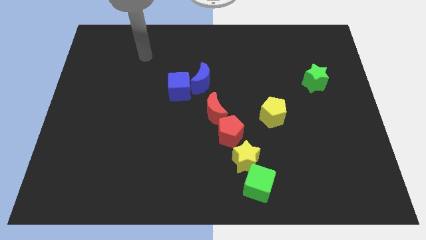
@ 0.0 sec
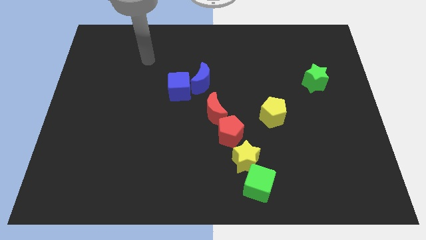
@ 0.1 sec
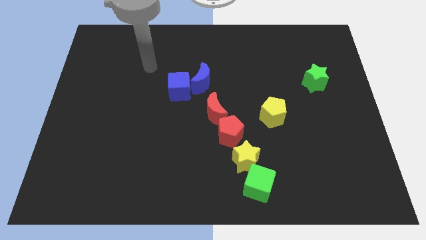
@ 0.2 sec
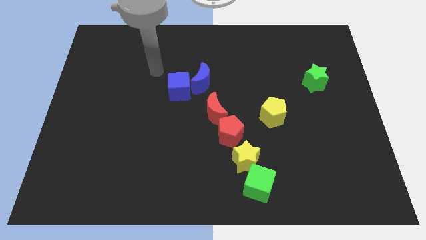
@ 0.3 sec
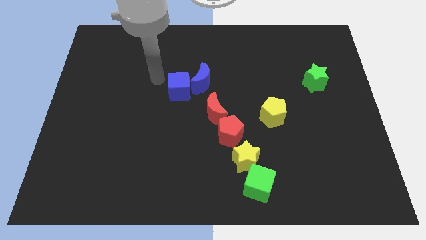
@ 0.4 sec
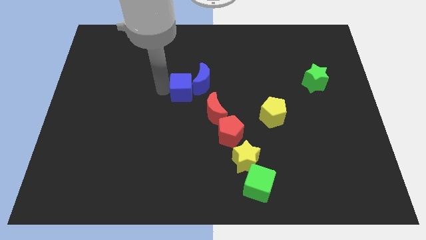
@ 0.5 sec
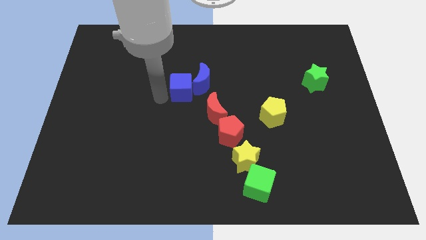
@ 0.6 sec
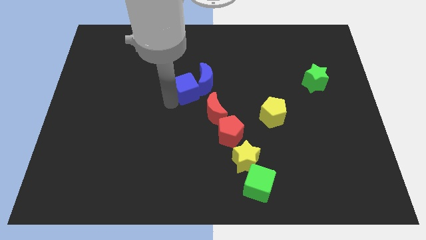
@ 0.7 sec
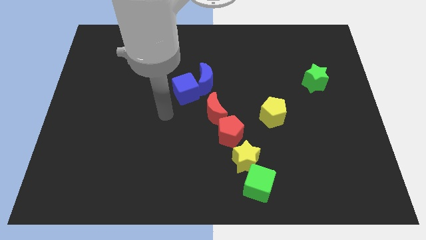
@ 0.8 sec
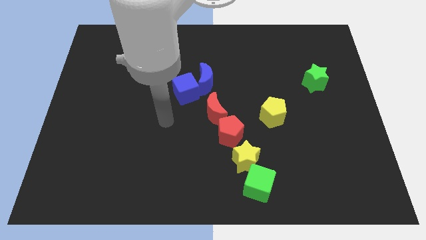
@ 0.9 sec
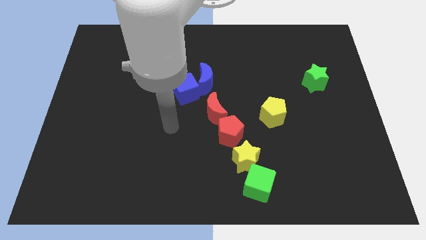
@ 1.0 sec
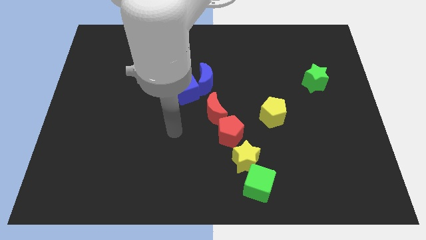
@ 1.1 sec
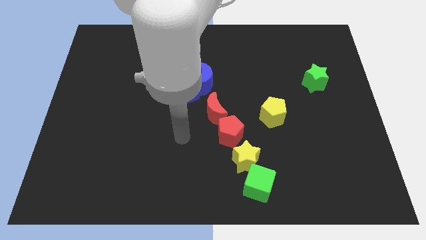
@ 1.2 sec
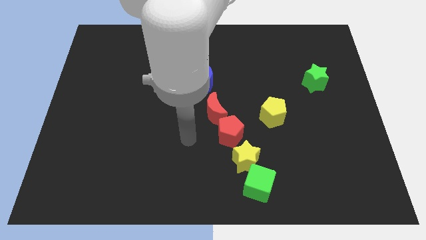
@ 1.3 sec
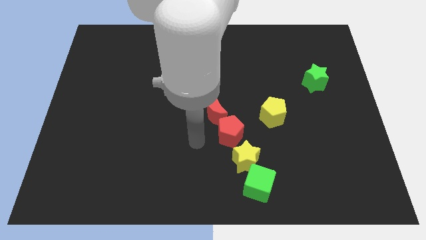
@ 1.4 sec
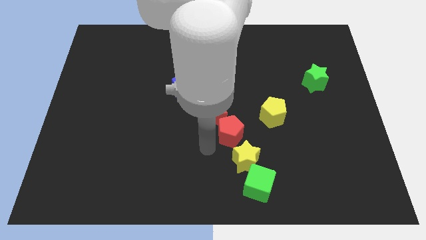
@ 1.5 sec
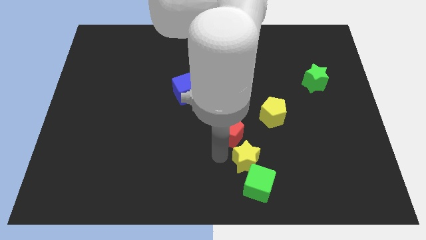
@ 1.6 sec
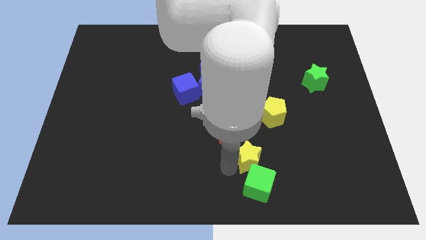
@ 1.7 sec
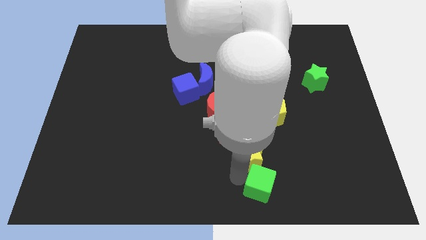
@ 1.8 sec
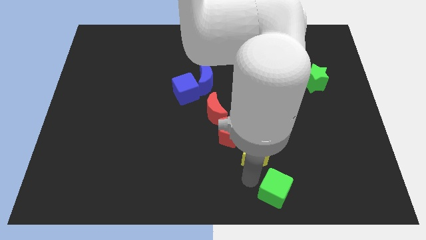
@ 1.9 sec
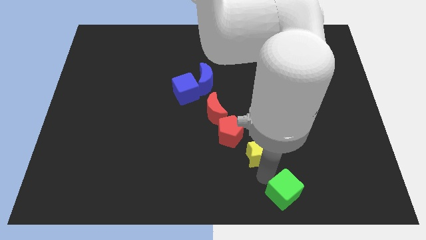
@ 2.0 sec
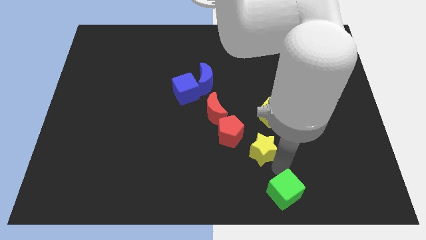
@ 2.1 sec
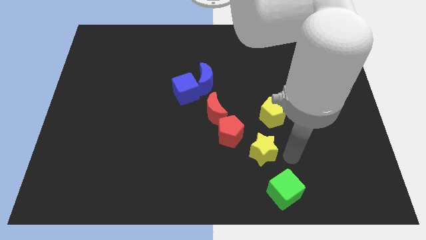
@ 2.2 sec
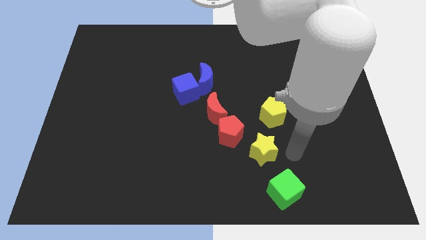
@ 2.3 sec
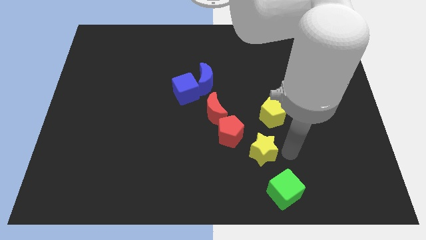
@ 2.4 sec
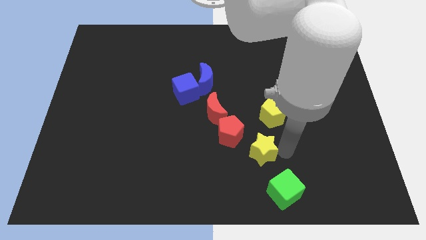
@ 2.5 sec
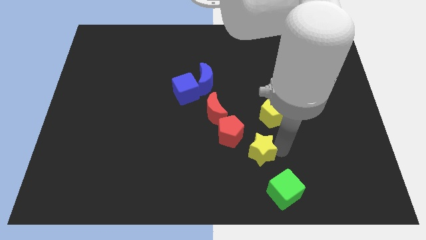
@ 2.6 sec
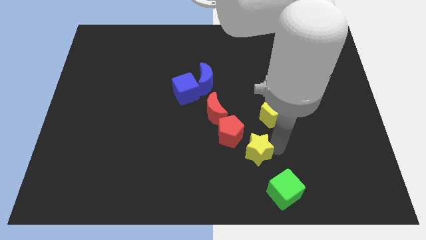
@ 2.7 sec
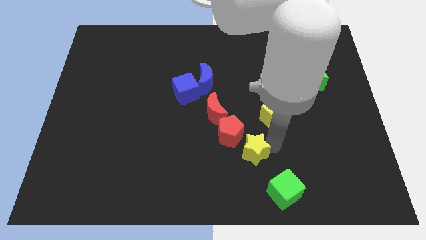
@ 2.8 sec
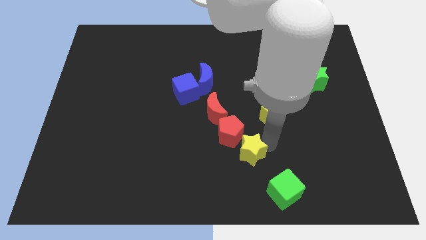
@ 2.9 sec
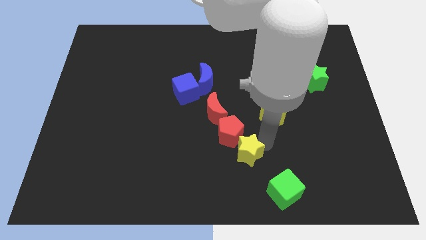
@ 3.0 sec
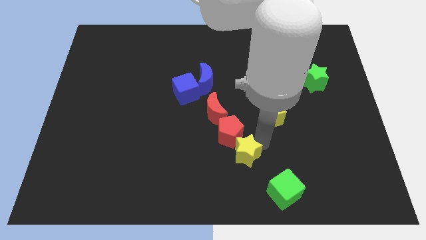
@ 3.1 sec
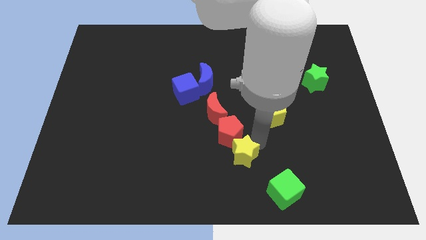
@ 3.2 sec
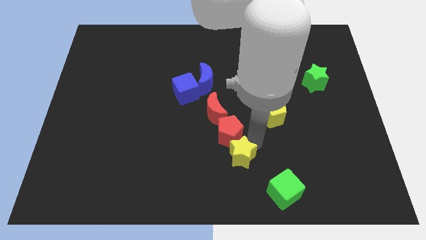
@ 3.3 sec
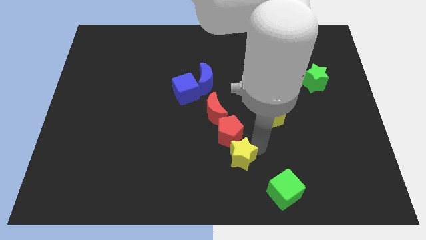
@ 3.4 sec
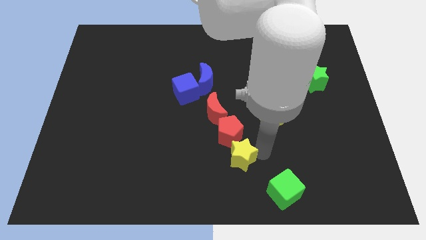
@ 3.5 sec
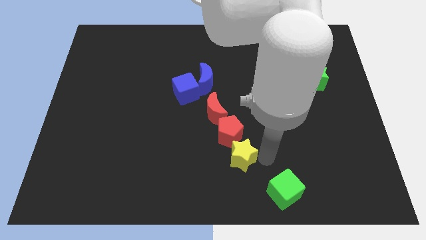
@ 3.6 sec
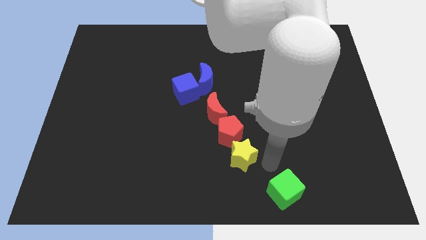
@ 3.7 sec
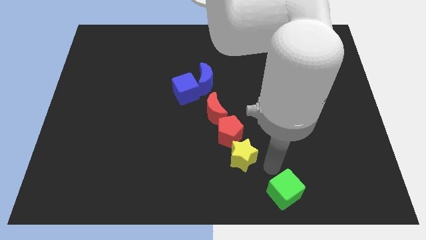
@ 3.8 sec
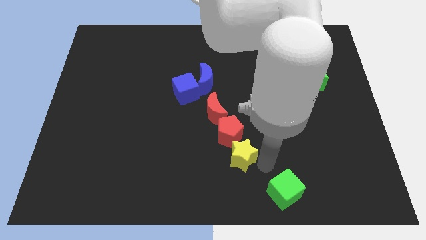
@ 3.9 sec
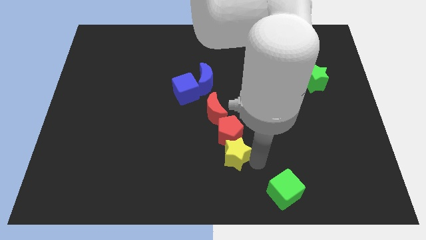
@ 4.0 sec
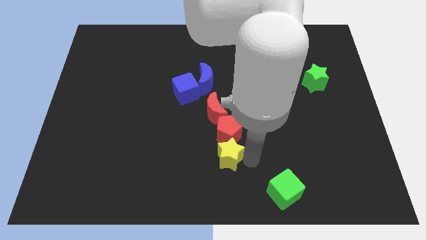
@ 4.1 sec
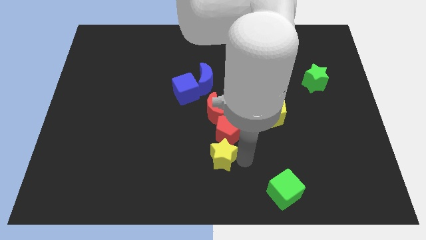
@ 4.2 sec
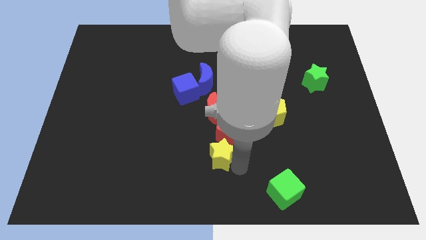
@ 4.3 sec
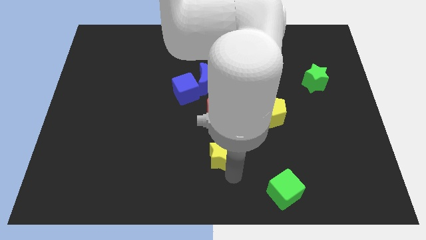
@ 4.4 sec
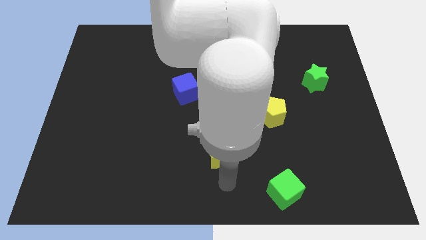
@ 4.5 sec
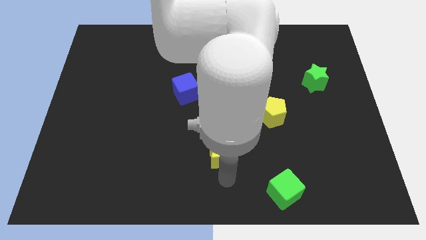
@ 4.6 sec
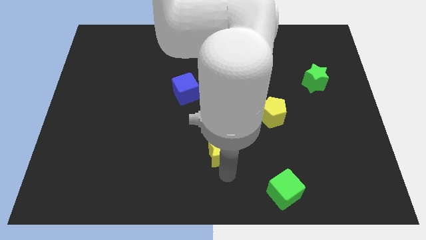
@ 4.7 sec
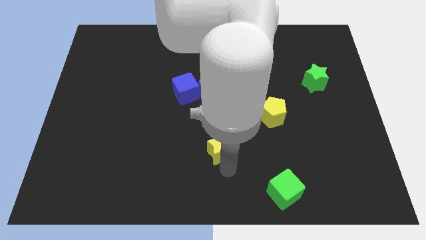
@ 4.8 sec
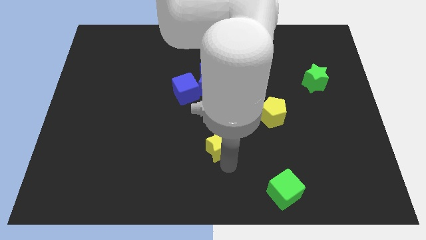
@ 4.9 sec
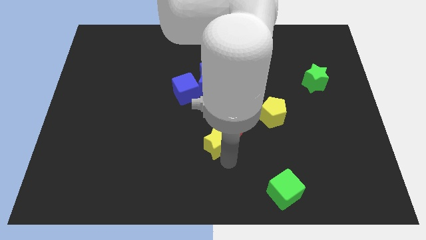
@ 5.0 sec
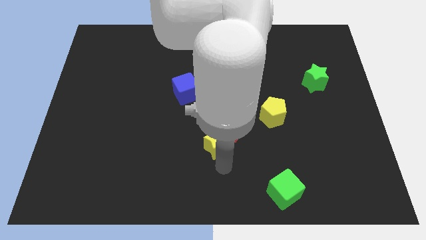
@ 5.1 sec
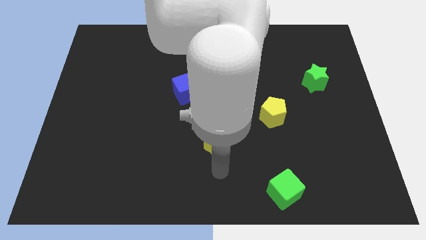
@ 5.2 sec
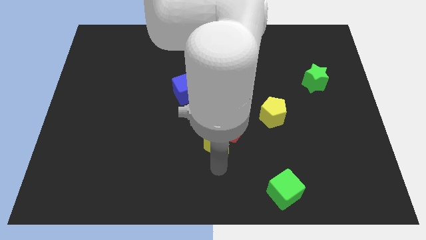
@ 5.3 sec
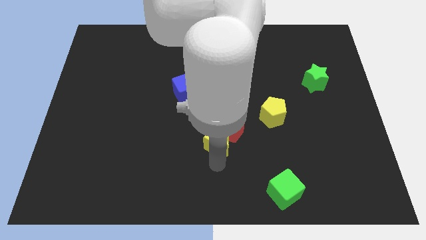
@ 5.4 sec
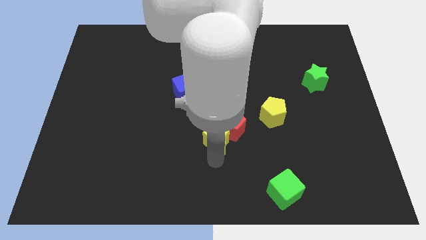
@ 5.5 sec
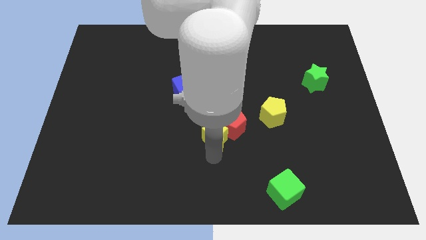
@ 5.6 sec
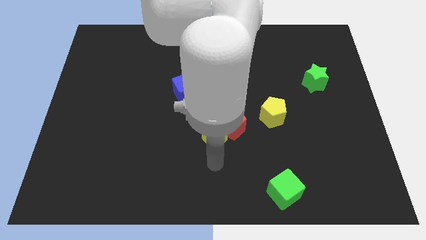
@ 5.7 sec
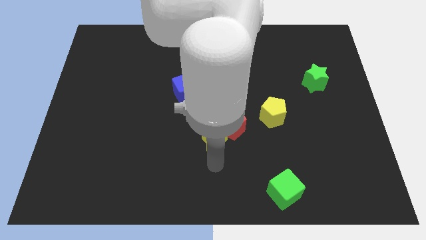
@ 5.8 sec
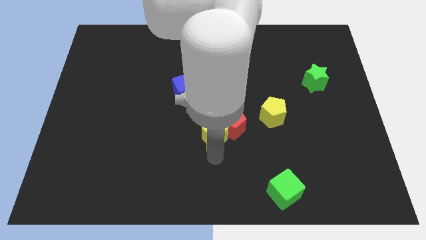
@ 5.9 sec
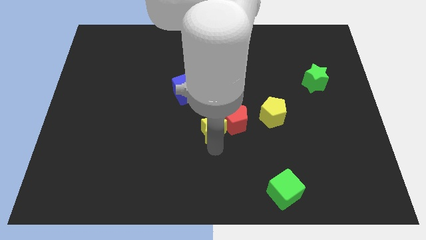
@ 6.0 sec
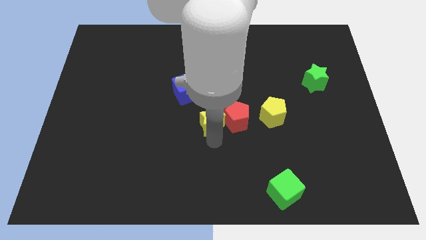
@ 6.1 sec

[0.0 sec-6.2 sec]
push the yellow star to the red moon
